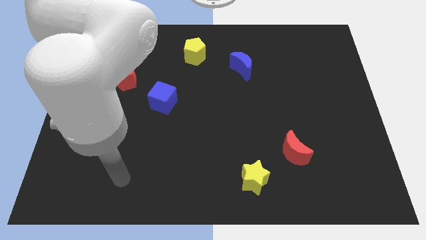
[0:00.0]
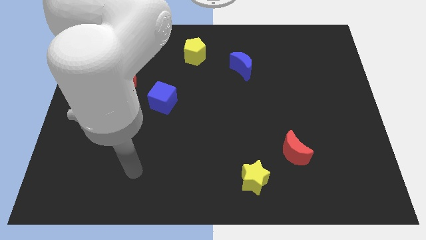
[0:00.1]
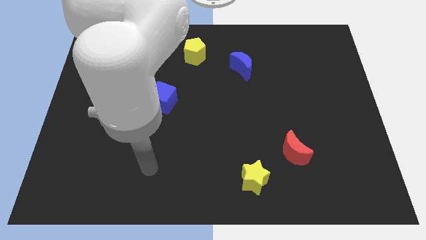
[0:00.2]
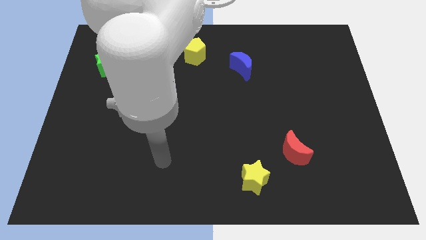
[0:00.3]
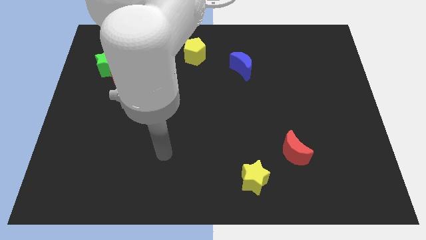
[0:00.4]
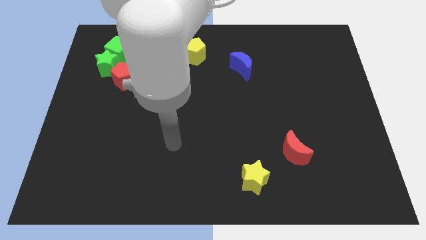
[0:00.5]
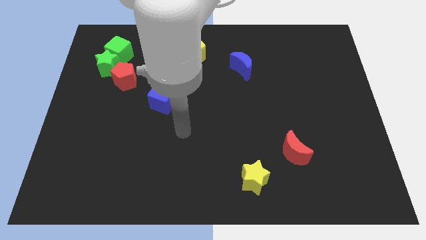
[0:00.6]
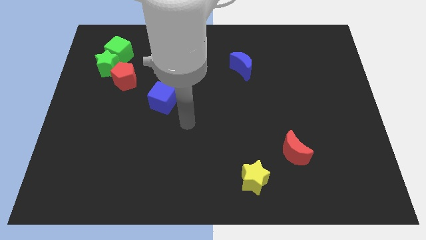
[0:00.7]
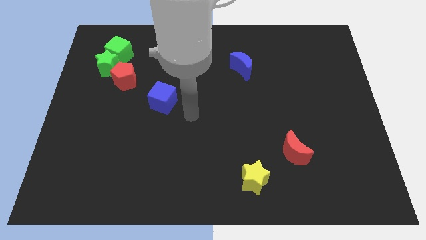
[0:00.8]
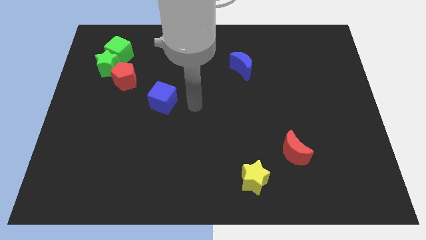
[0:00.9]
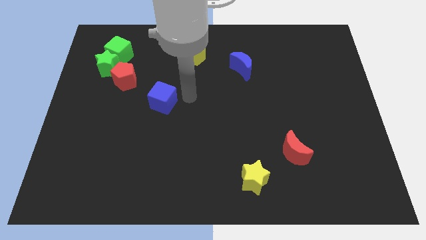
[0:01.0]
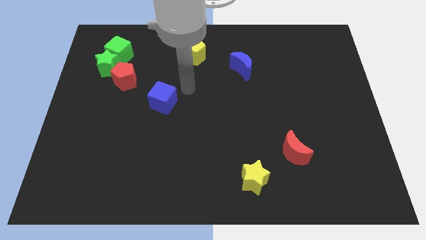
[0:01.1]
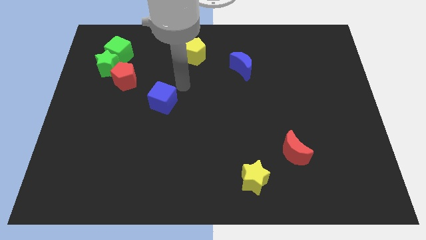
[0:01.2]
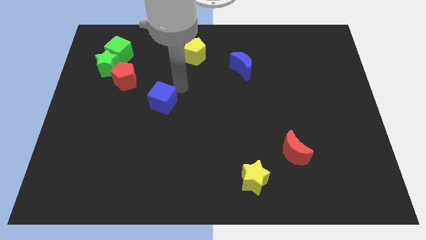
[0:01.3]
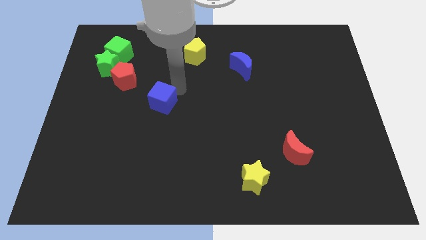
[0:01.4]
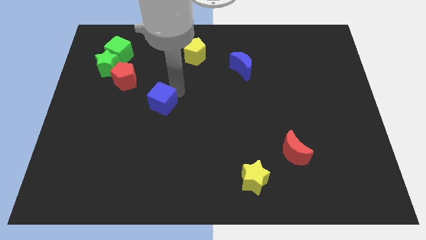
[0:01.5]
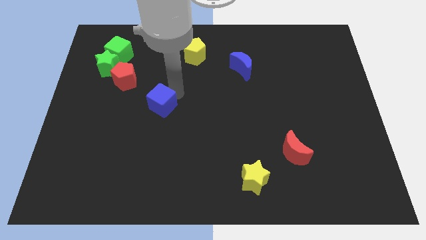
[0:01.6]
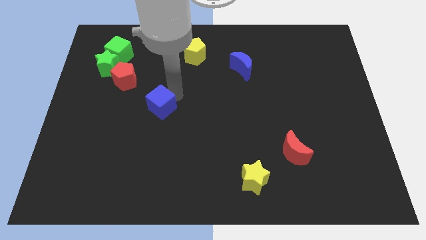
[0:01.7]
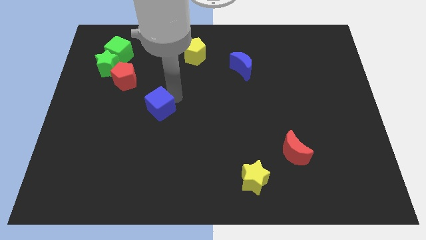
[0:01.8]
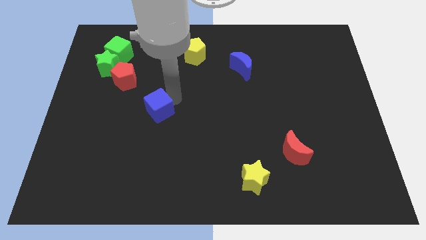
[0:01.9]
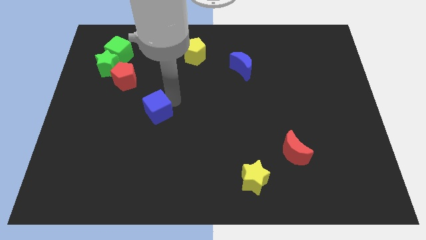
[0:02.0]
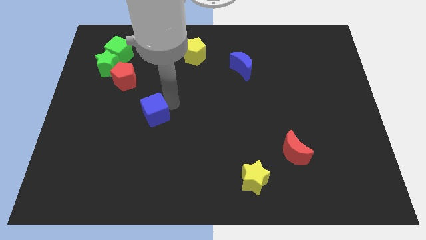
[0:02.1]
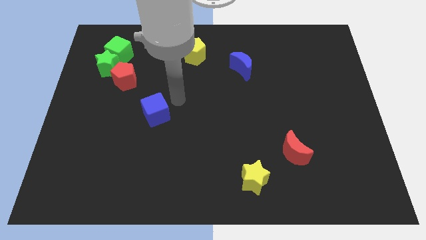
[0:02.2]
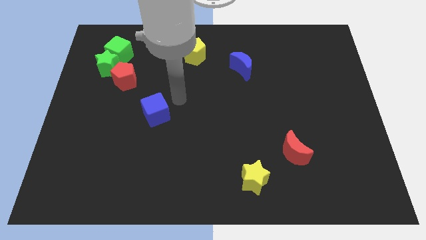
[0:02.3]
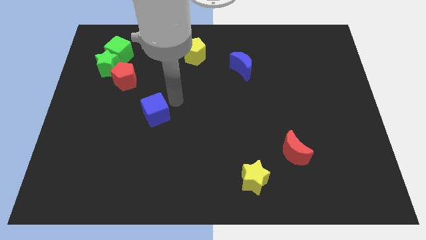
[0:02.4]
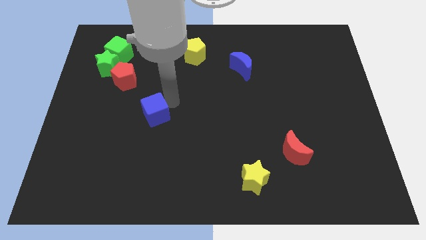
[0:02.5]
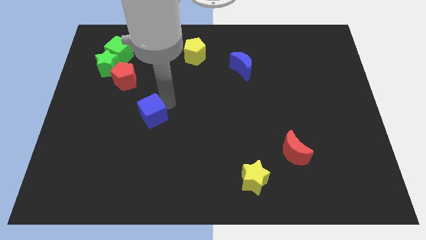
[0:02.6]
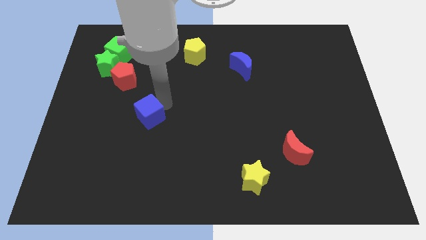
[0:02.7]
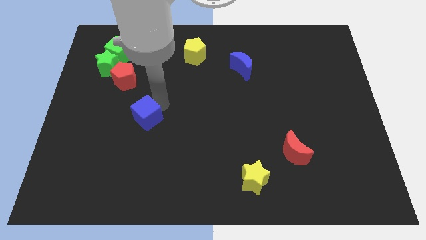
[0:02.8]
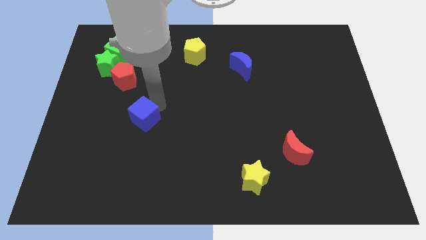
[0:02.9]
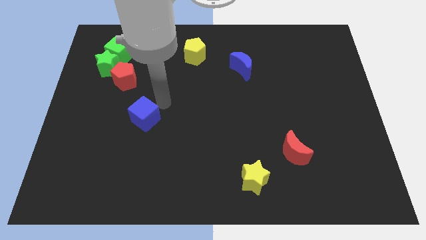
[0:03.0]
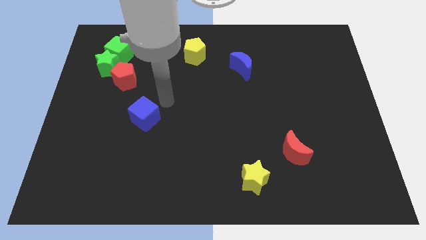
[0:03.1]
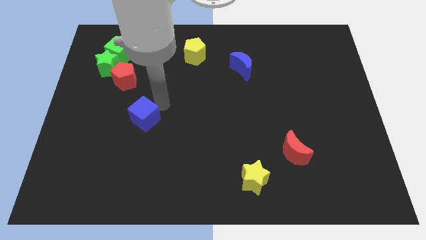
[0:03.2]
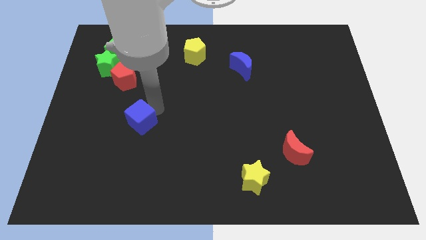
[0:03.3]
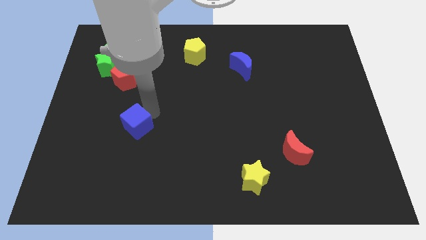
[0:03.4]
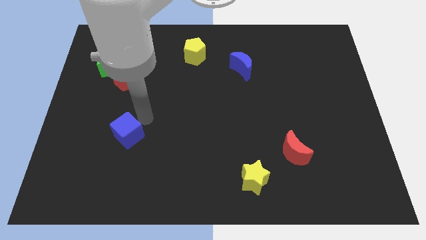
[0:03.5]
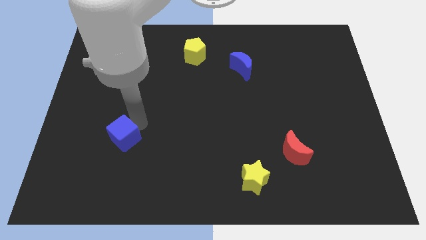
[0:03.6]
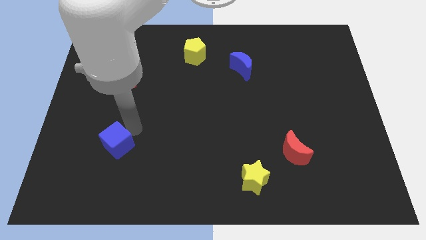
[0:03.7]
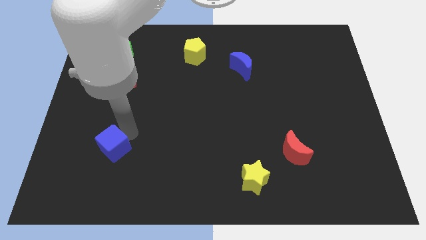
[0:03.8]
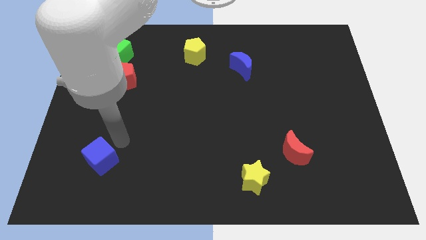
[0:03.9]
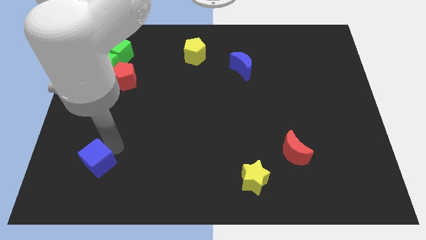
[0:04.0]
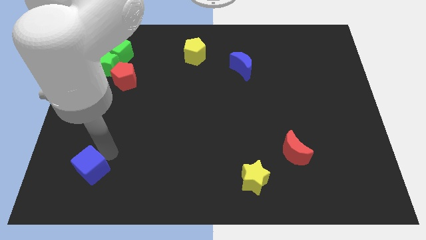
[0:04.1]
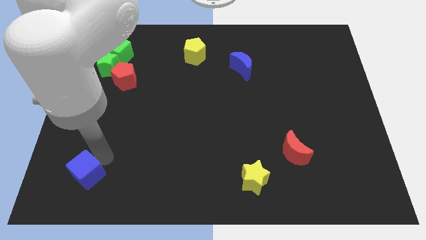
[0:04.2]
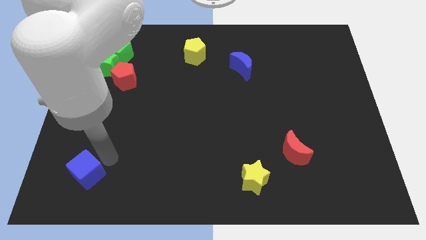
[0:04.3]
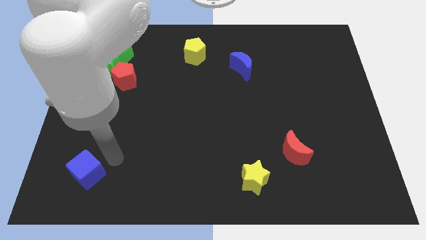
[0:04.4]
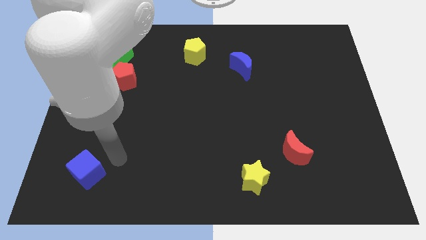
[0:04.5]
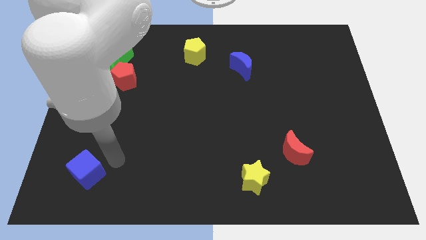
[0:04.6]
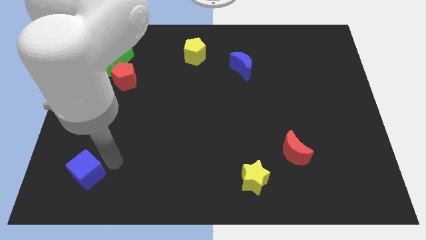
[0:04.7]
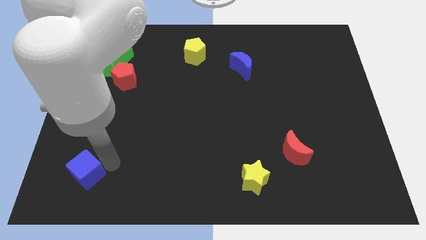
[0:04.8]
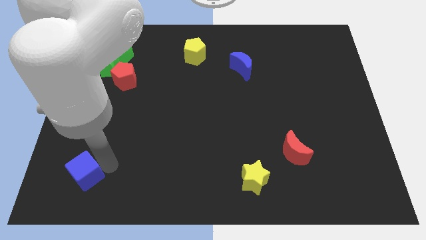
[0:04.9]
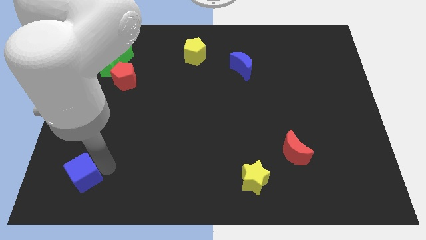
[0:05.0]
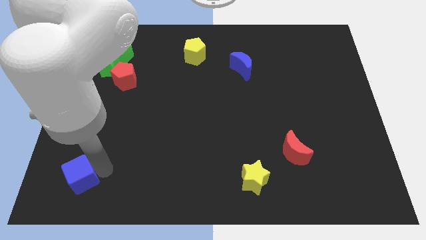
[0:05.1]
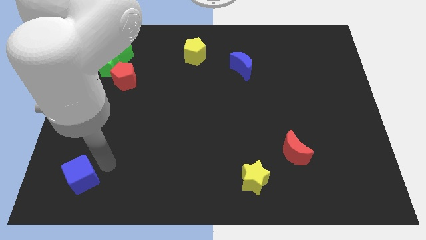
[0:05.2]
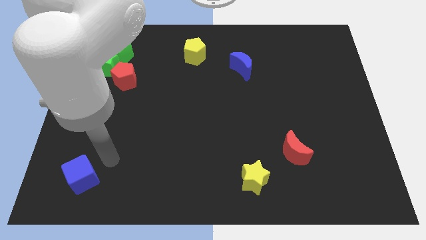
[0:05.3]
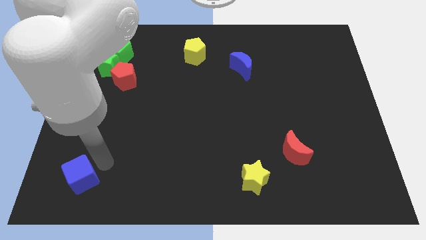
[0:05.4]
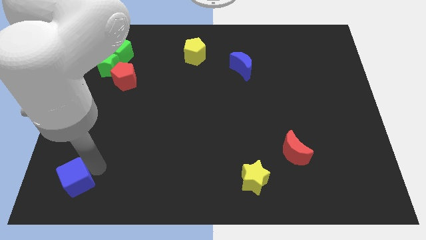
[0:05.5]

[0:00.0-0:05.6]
slide the blue cube to the bottom left of the board

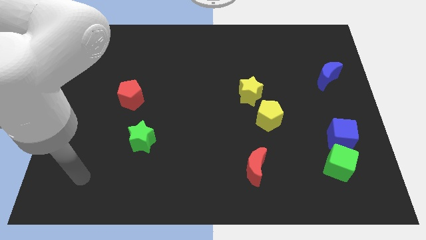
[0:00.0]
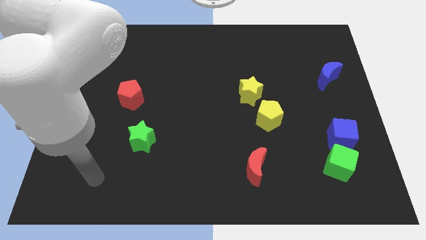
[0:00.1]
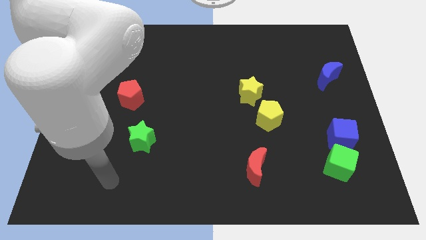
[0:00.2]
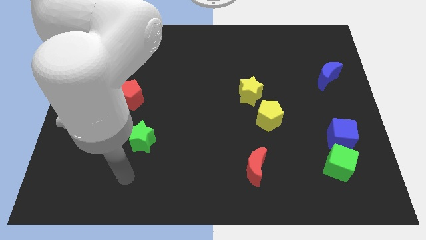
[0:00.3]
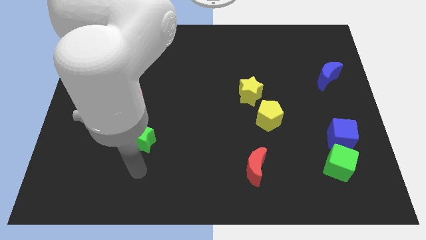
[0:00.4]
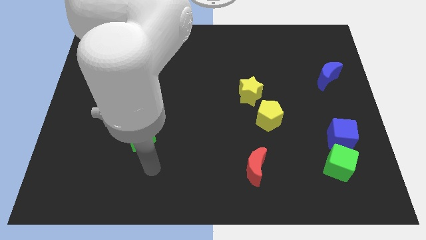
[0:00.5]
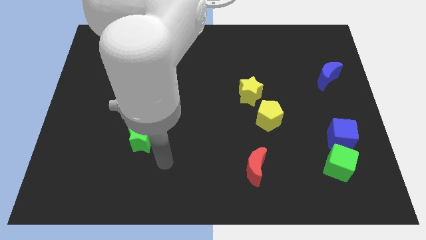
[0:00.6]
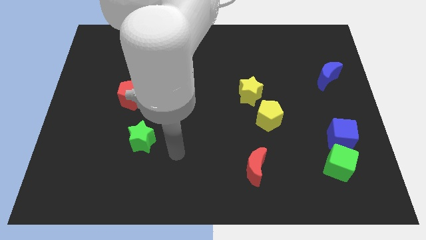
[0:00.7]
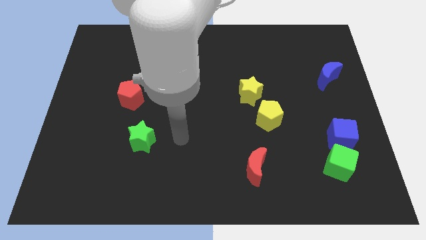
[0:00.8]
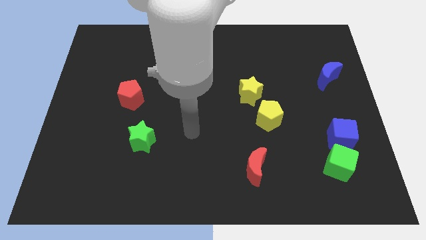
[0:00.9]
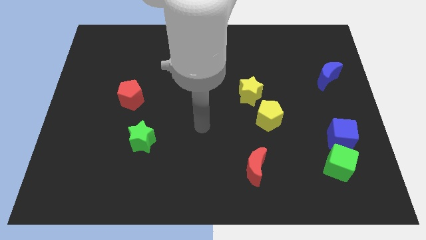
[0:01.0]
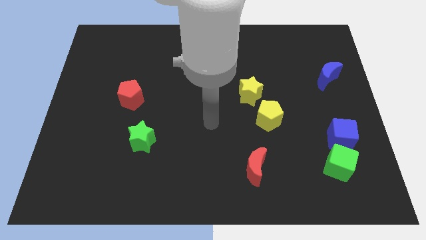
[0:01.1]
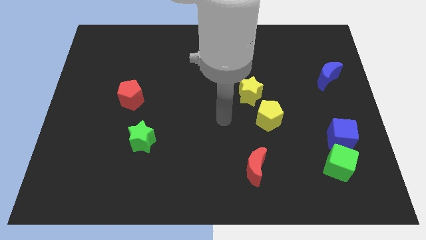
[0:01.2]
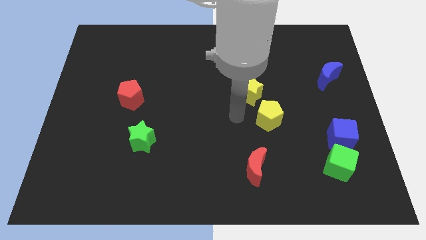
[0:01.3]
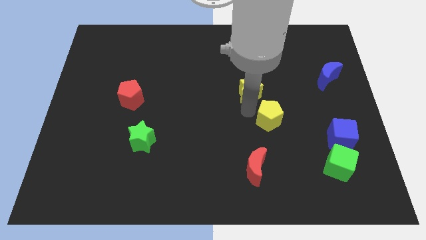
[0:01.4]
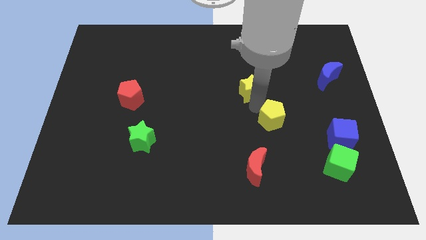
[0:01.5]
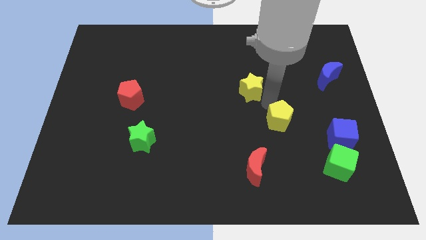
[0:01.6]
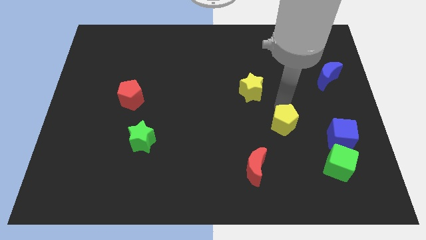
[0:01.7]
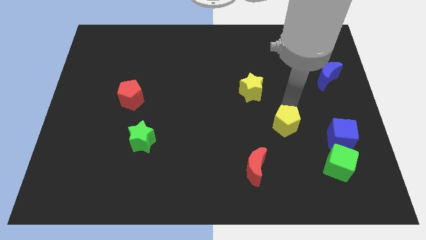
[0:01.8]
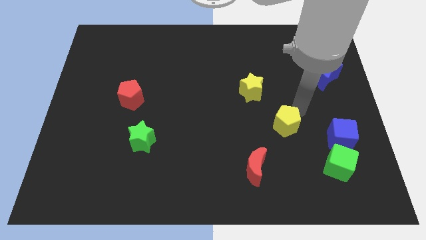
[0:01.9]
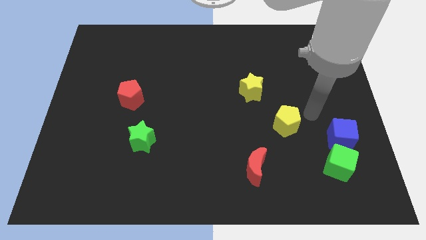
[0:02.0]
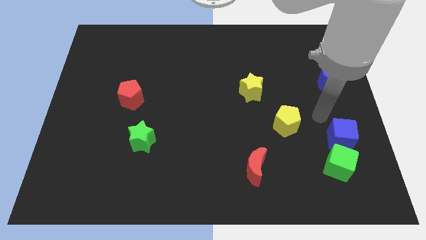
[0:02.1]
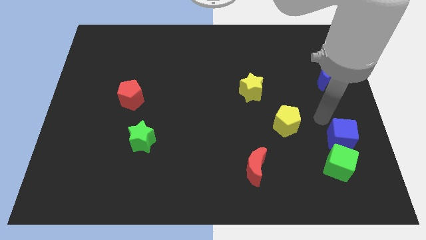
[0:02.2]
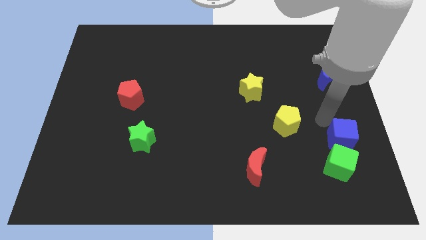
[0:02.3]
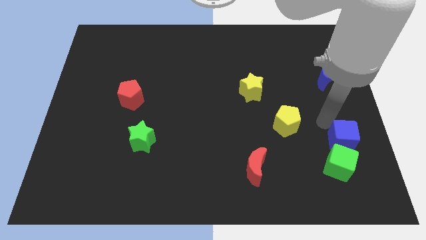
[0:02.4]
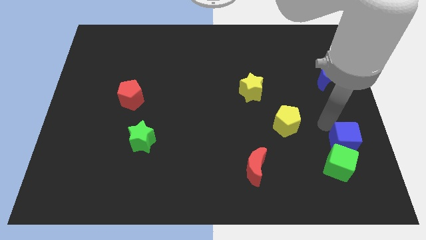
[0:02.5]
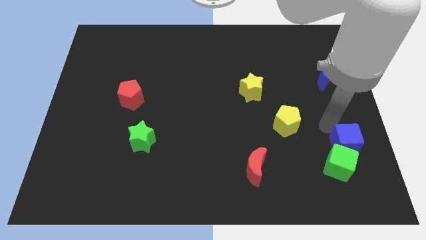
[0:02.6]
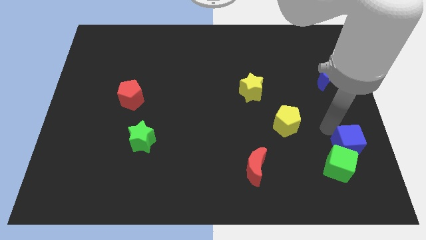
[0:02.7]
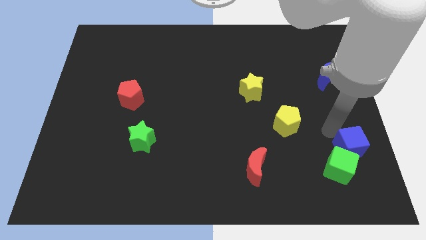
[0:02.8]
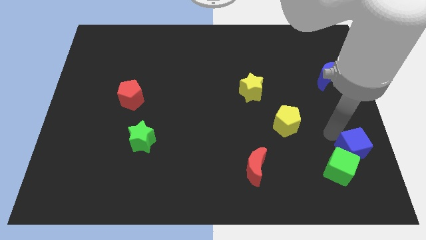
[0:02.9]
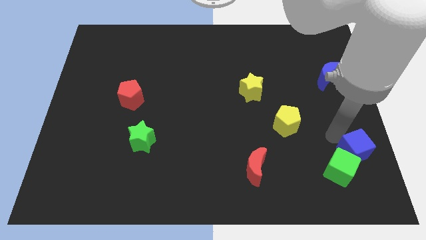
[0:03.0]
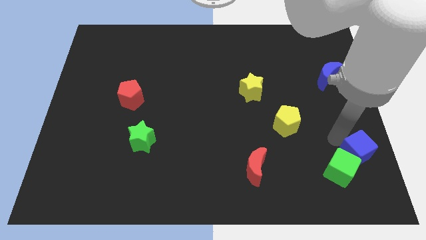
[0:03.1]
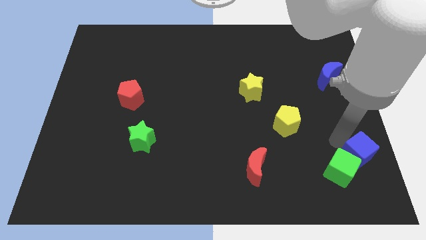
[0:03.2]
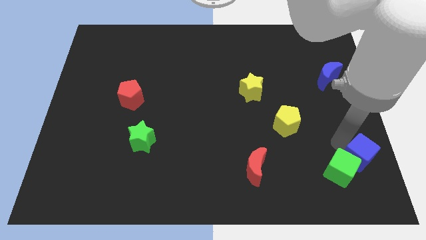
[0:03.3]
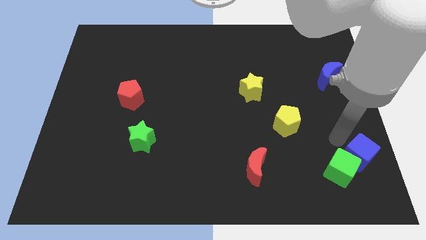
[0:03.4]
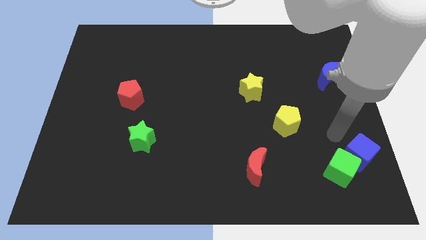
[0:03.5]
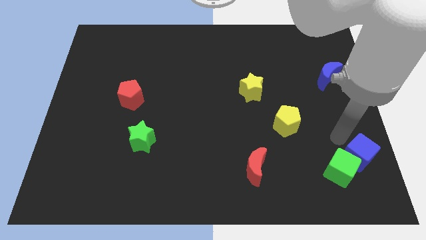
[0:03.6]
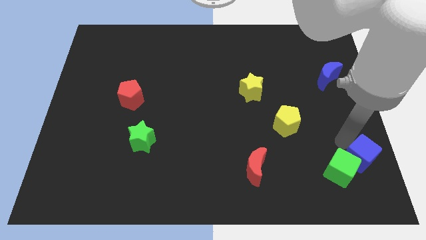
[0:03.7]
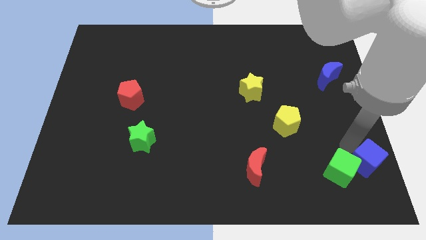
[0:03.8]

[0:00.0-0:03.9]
push the blue cube to the bottom right
